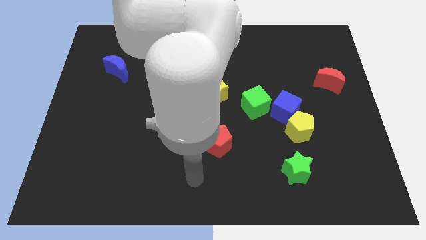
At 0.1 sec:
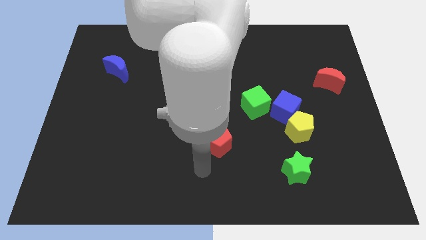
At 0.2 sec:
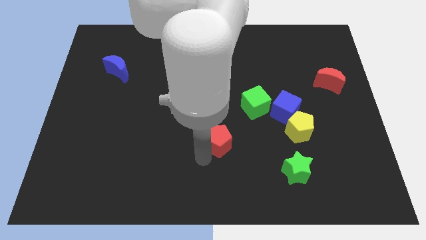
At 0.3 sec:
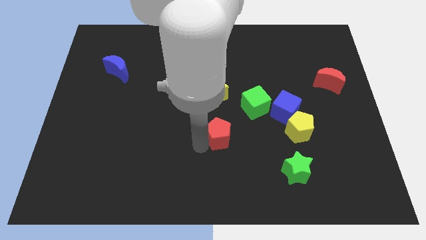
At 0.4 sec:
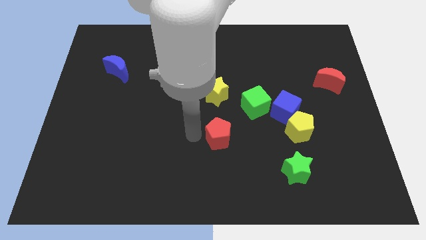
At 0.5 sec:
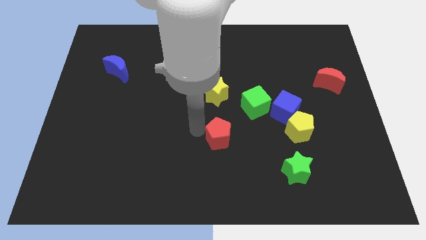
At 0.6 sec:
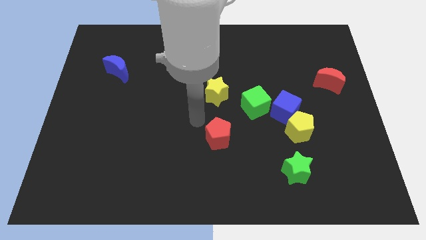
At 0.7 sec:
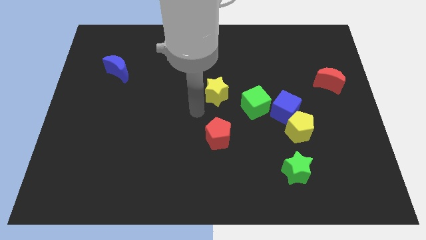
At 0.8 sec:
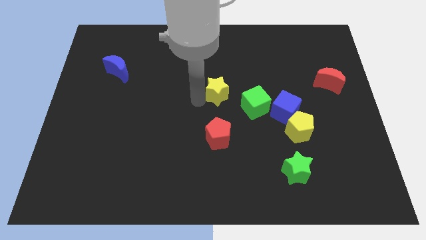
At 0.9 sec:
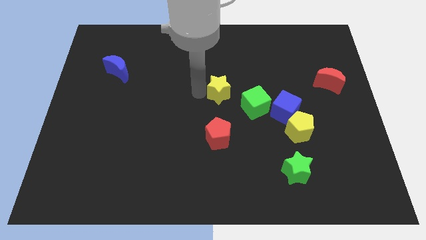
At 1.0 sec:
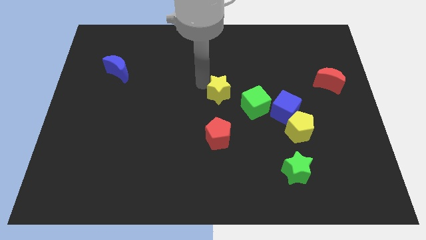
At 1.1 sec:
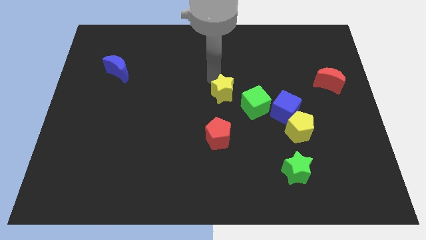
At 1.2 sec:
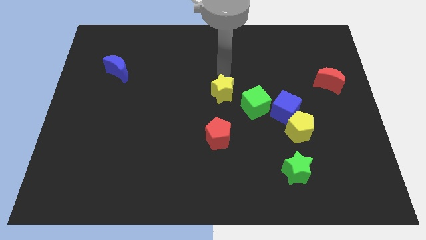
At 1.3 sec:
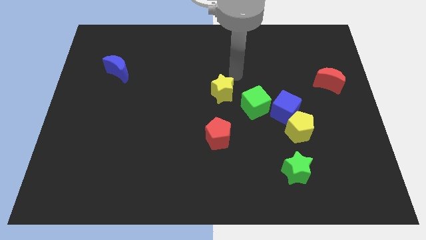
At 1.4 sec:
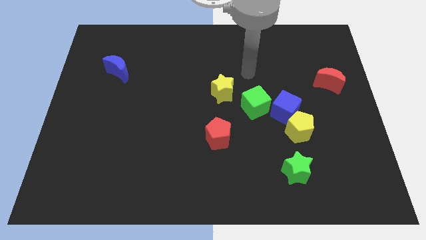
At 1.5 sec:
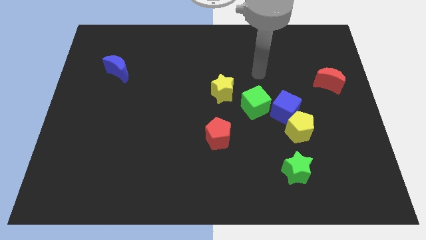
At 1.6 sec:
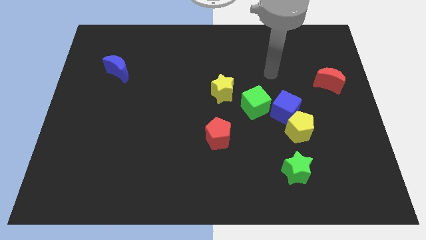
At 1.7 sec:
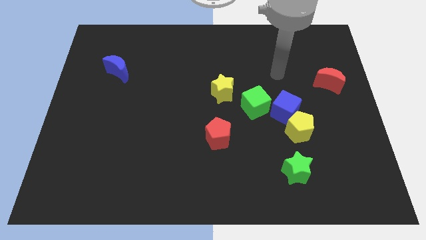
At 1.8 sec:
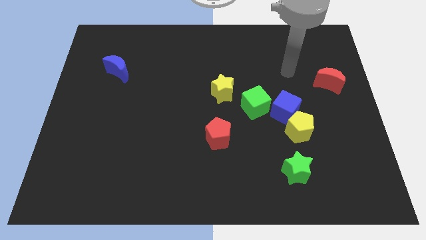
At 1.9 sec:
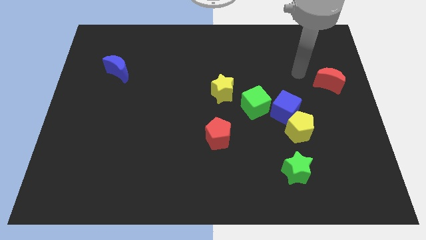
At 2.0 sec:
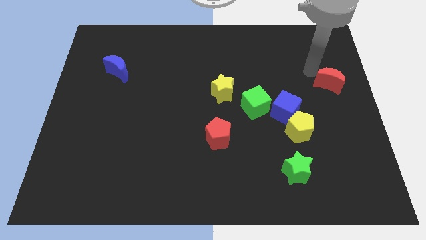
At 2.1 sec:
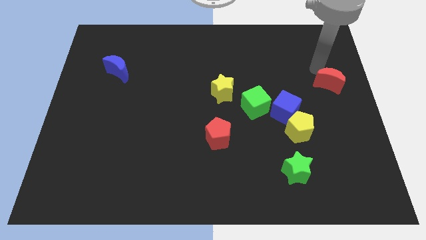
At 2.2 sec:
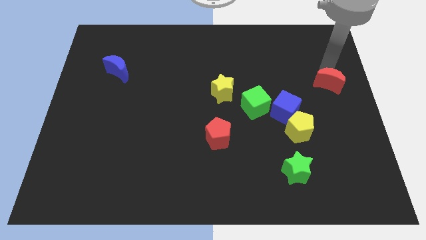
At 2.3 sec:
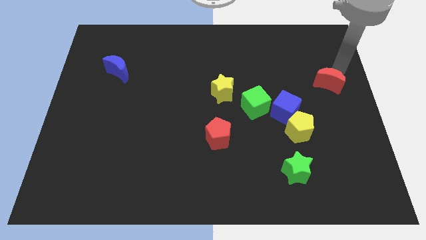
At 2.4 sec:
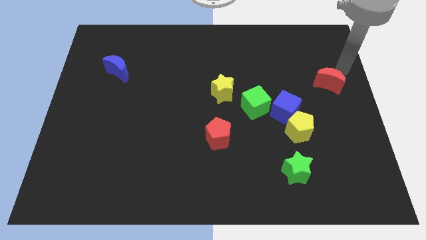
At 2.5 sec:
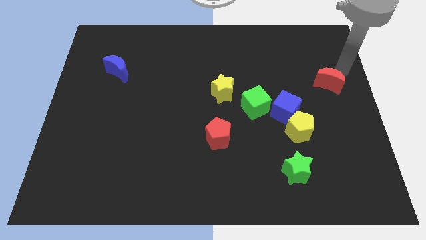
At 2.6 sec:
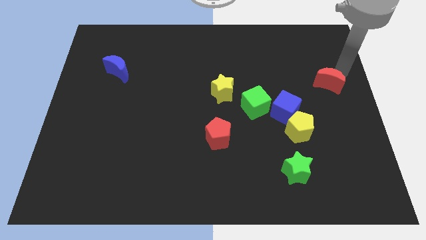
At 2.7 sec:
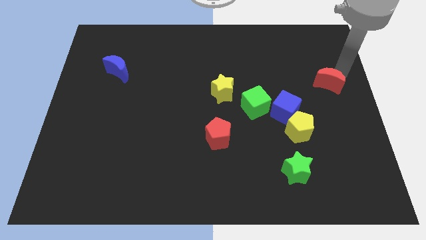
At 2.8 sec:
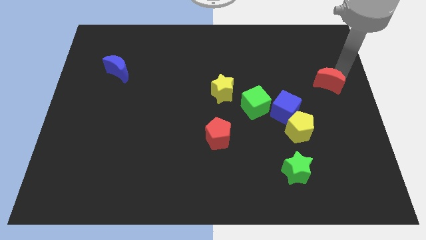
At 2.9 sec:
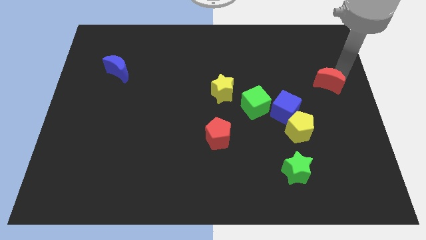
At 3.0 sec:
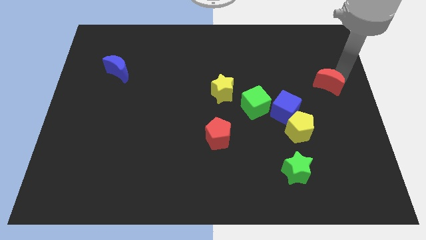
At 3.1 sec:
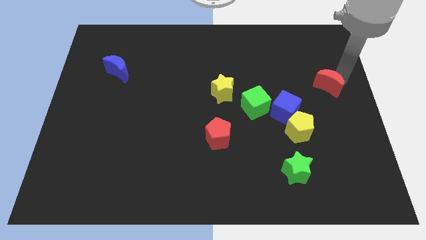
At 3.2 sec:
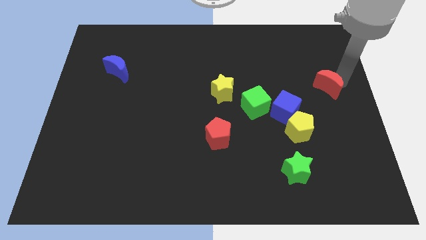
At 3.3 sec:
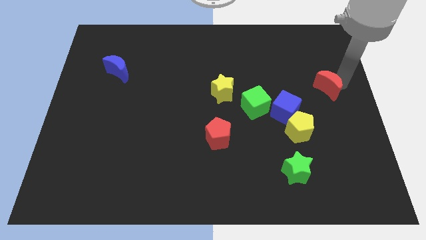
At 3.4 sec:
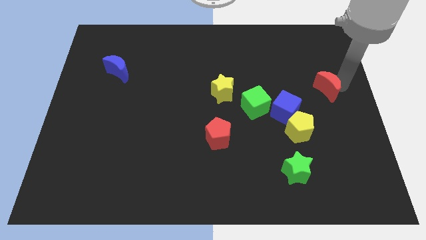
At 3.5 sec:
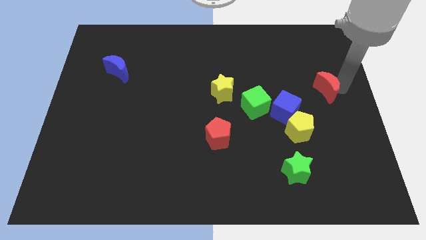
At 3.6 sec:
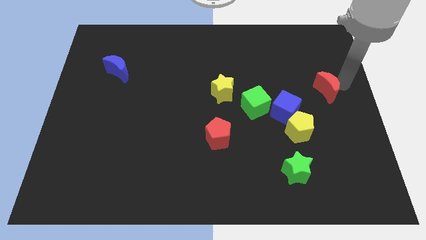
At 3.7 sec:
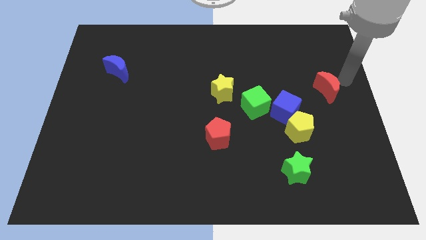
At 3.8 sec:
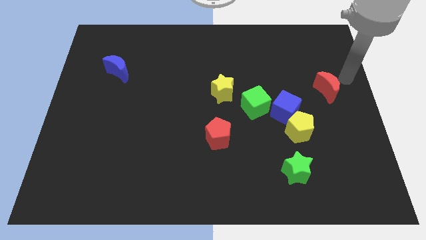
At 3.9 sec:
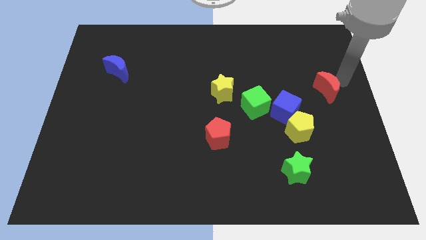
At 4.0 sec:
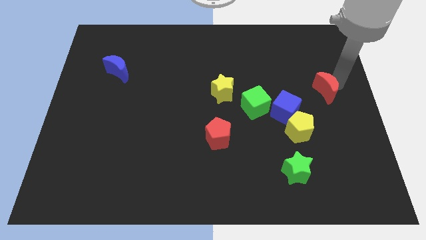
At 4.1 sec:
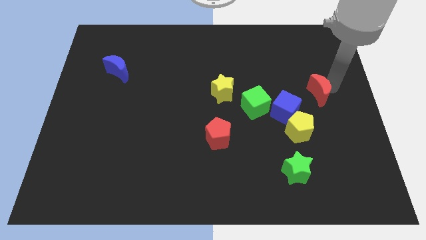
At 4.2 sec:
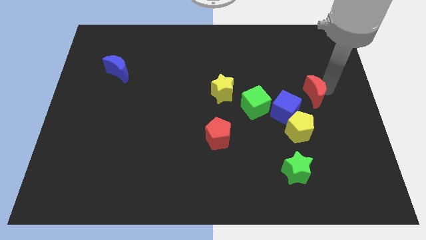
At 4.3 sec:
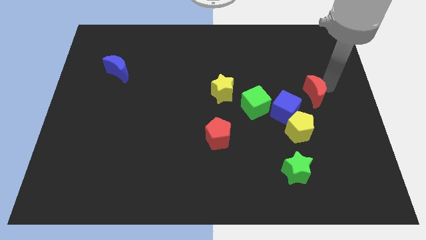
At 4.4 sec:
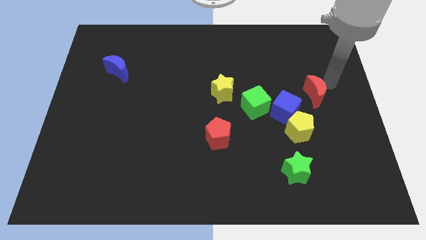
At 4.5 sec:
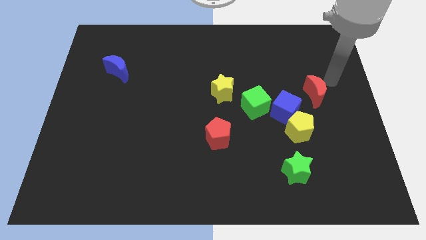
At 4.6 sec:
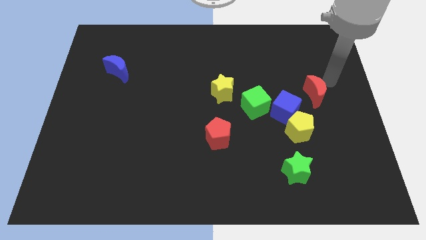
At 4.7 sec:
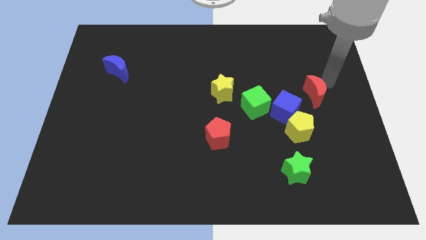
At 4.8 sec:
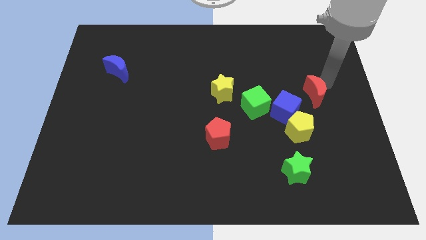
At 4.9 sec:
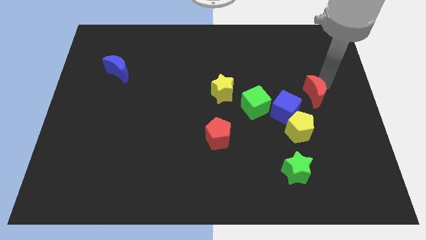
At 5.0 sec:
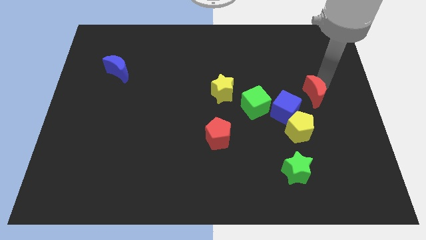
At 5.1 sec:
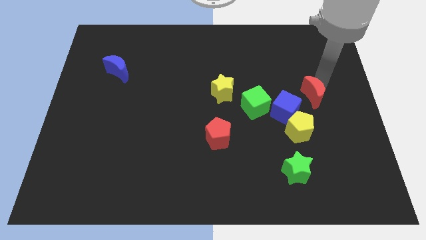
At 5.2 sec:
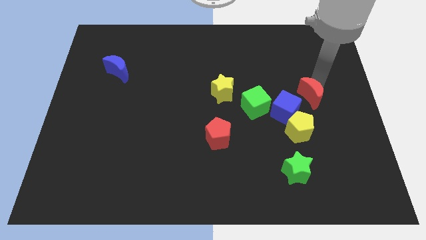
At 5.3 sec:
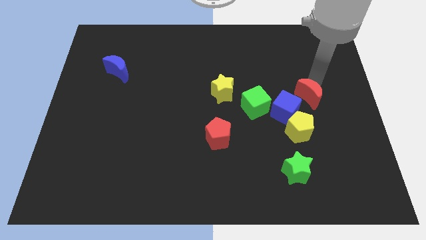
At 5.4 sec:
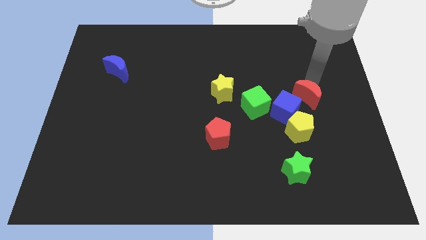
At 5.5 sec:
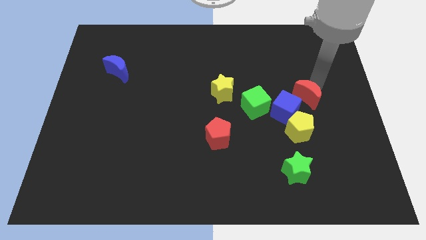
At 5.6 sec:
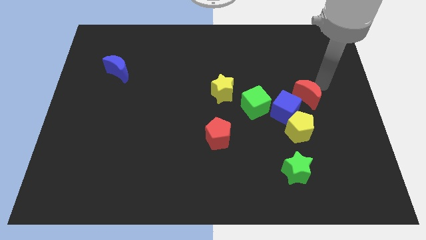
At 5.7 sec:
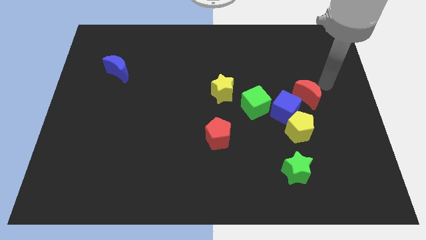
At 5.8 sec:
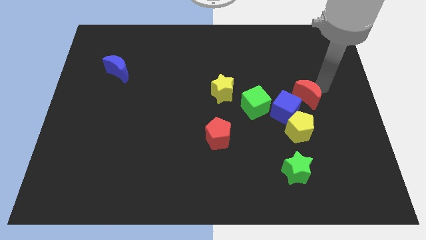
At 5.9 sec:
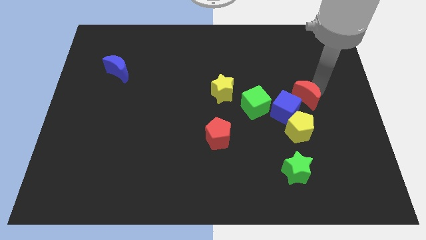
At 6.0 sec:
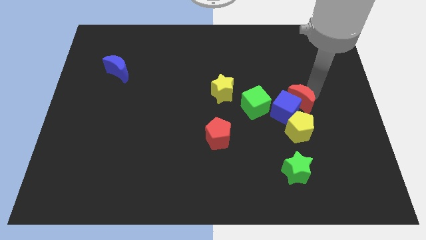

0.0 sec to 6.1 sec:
slide the red moon next to the blue cube

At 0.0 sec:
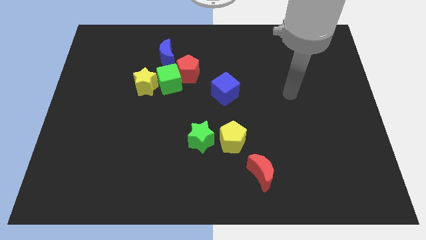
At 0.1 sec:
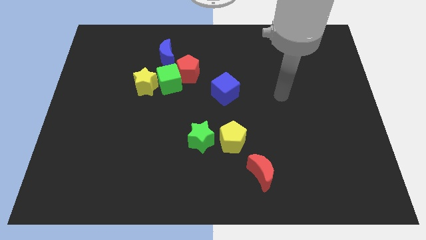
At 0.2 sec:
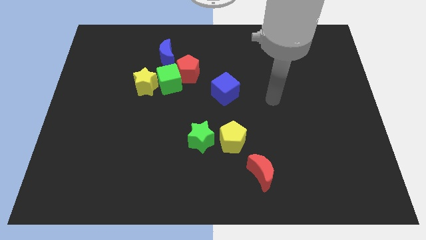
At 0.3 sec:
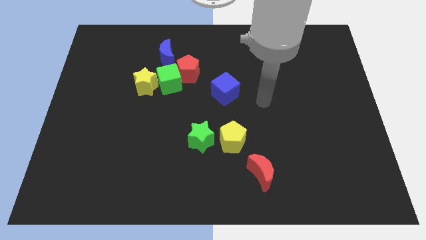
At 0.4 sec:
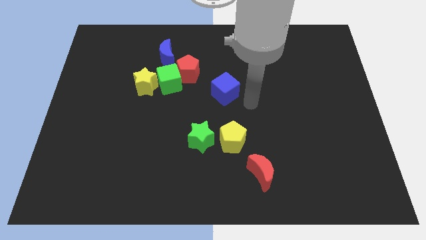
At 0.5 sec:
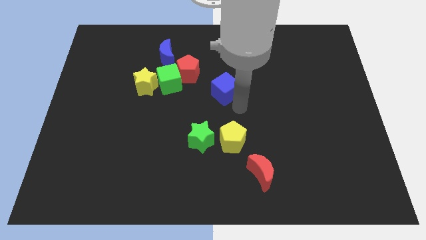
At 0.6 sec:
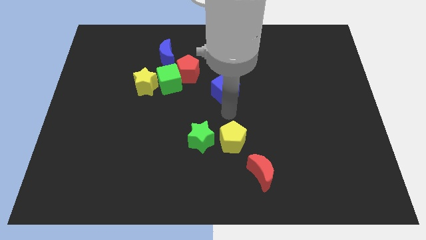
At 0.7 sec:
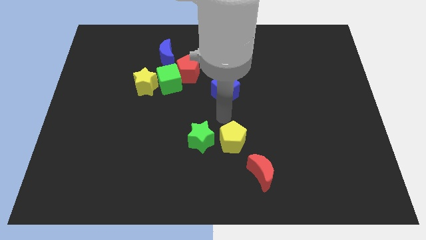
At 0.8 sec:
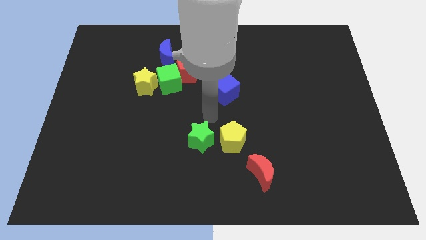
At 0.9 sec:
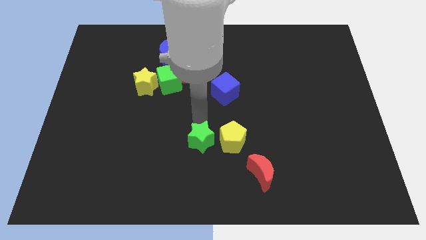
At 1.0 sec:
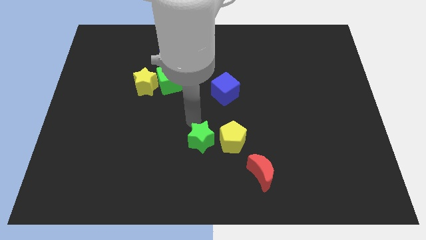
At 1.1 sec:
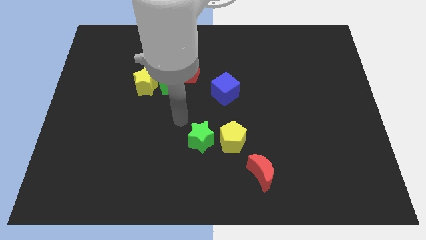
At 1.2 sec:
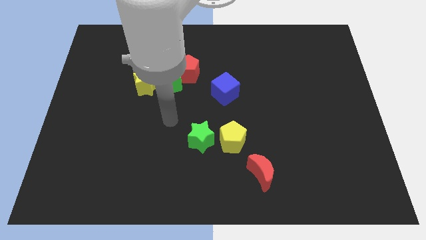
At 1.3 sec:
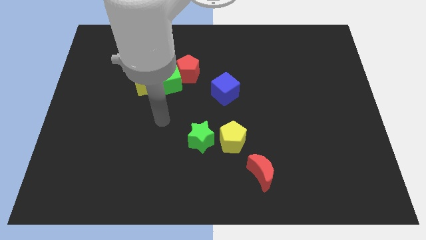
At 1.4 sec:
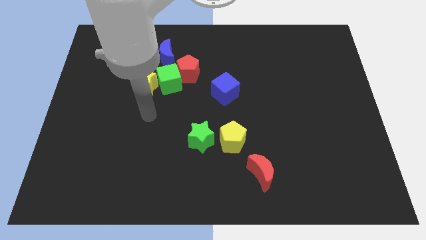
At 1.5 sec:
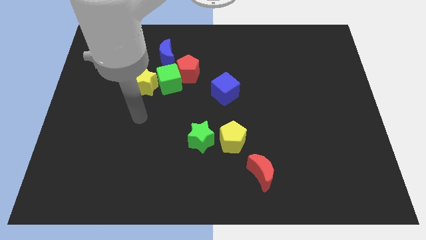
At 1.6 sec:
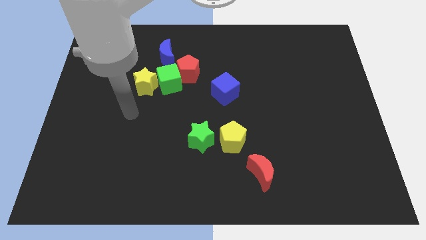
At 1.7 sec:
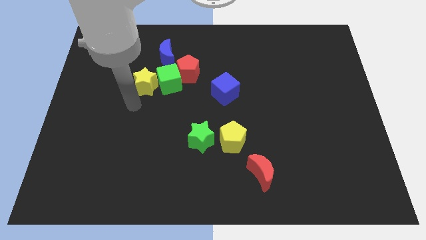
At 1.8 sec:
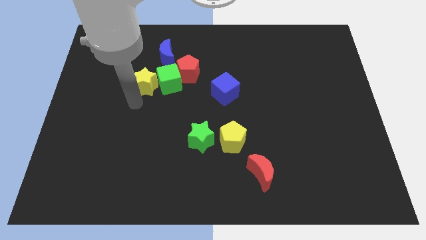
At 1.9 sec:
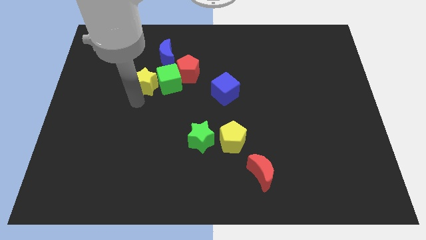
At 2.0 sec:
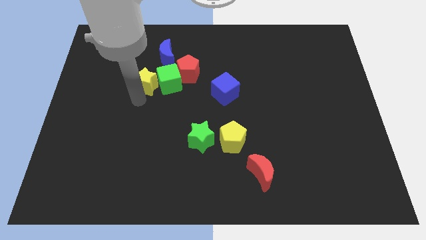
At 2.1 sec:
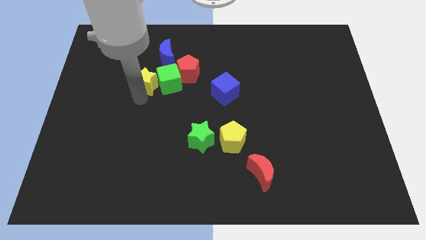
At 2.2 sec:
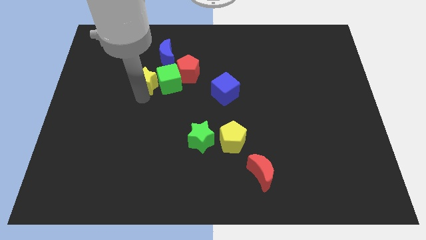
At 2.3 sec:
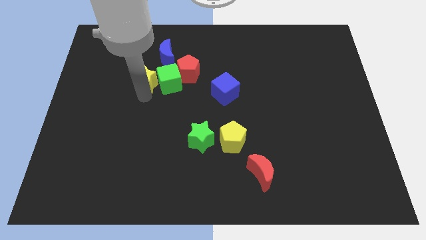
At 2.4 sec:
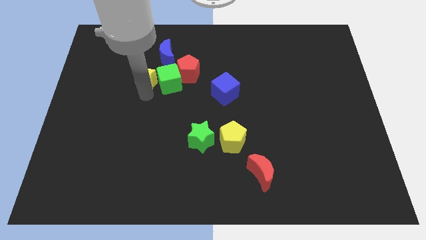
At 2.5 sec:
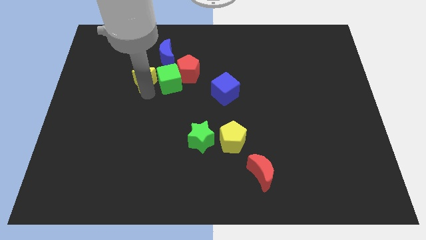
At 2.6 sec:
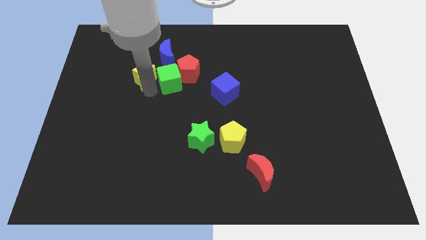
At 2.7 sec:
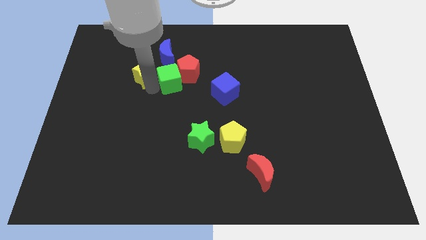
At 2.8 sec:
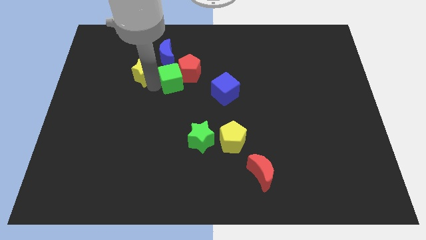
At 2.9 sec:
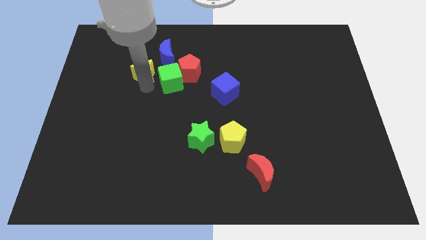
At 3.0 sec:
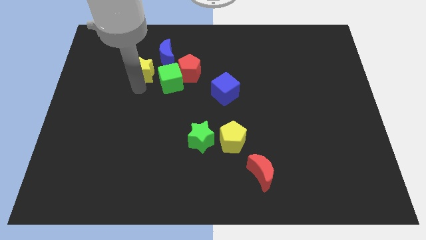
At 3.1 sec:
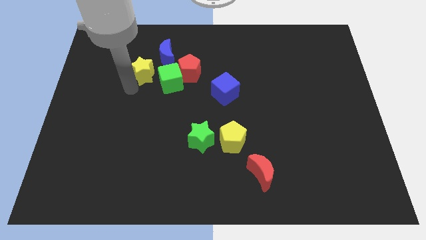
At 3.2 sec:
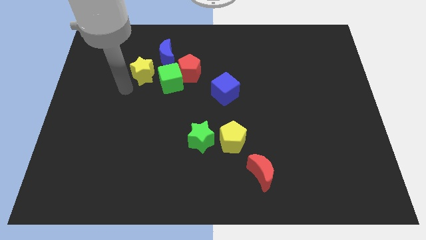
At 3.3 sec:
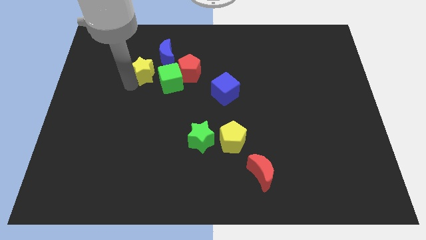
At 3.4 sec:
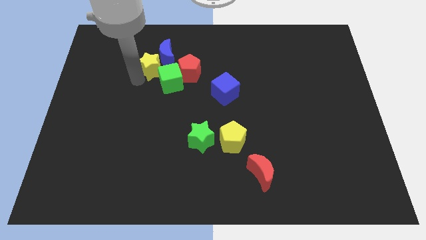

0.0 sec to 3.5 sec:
put the yellow star close to the blue moon
